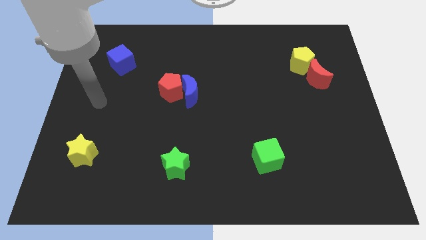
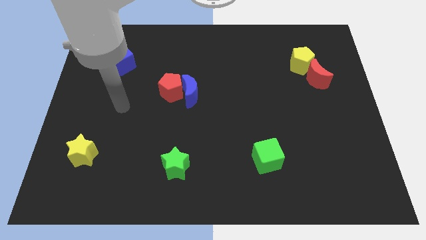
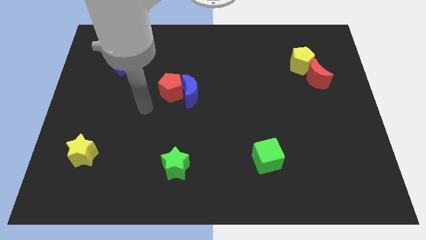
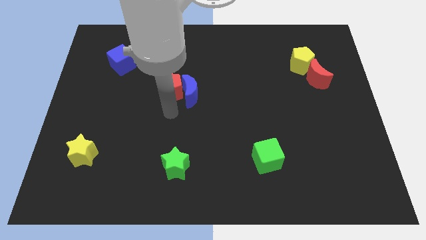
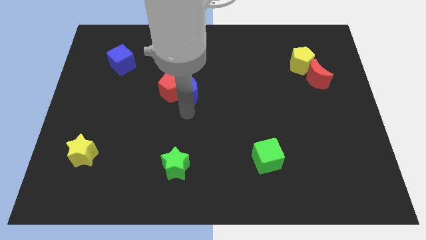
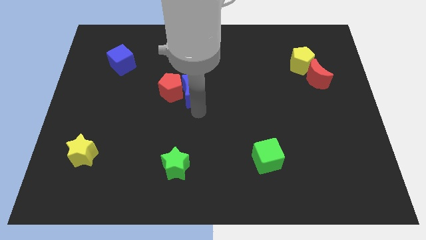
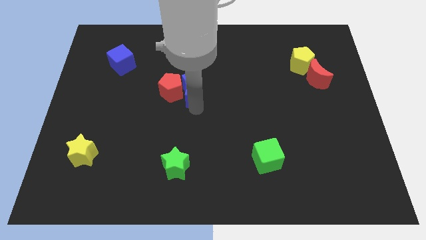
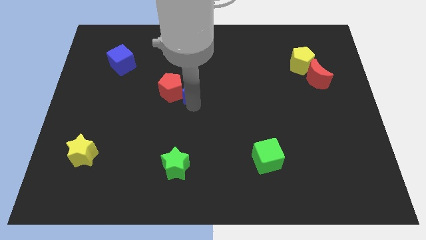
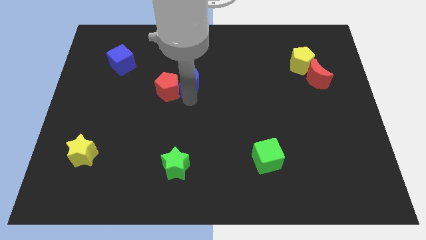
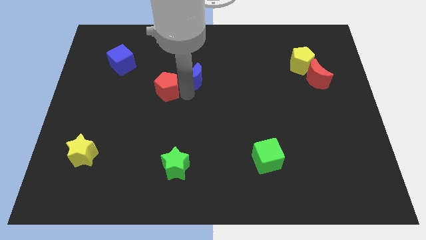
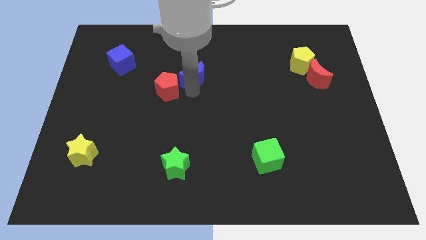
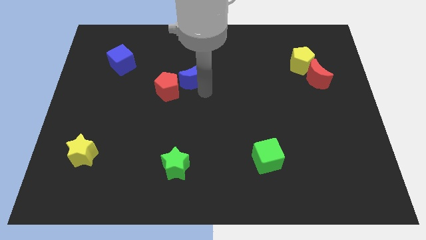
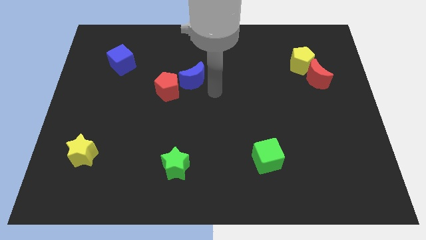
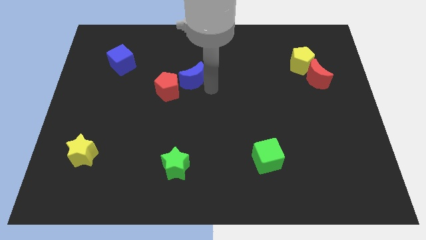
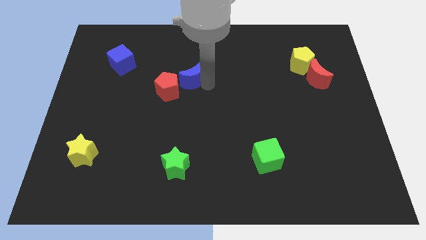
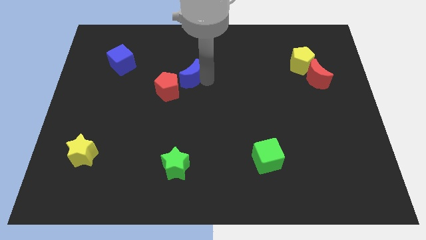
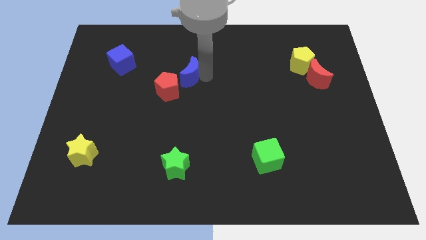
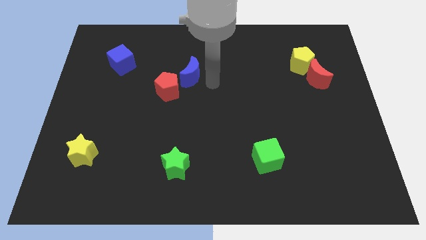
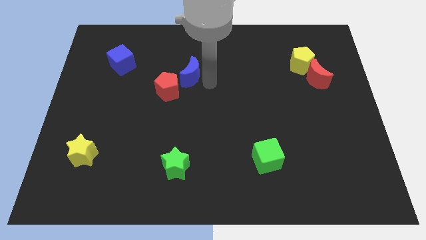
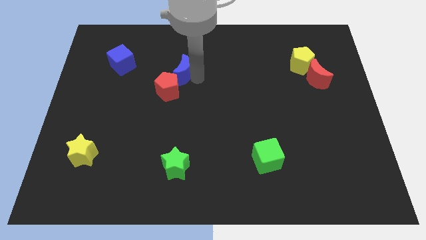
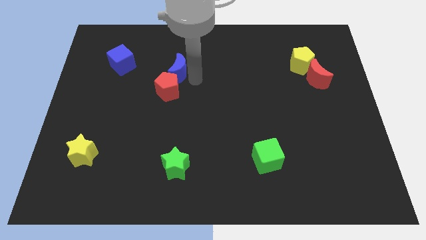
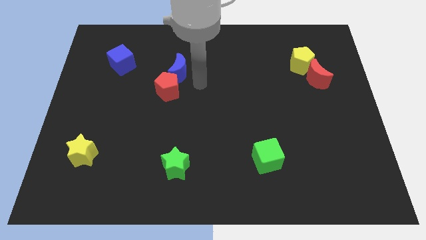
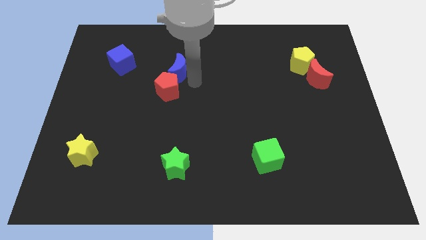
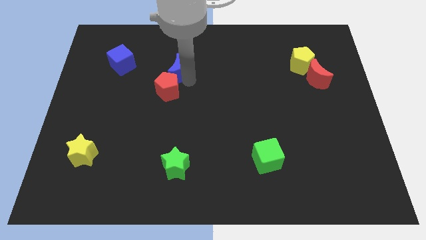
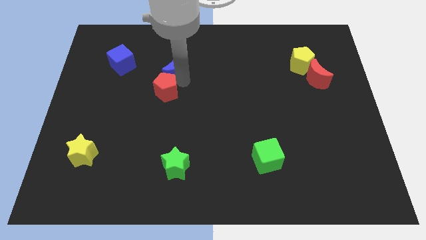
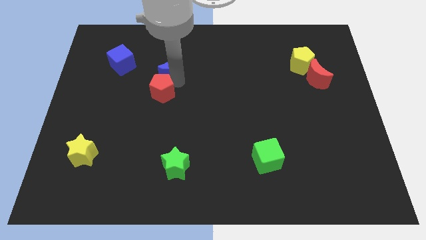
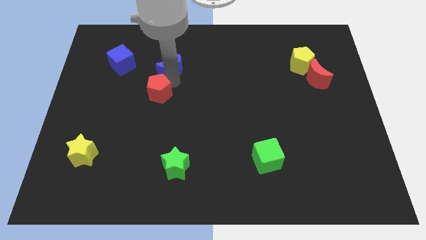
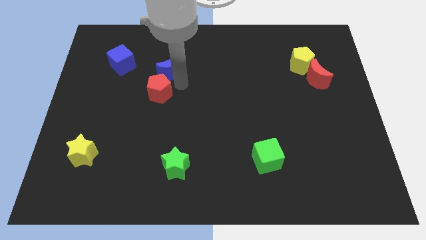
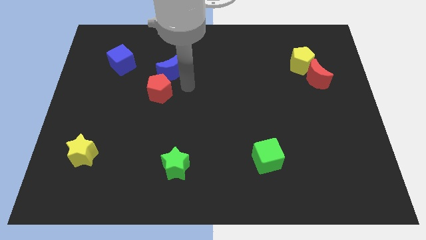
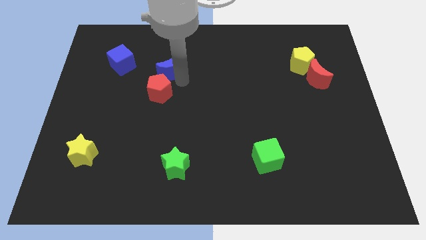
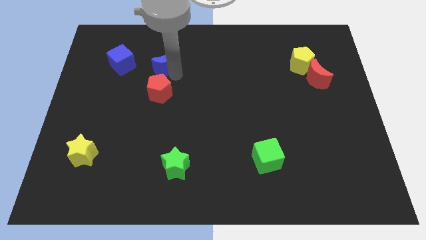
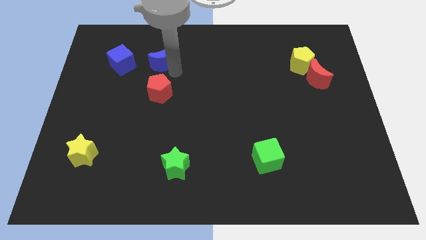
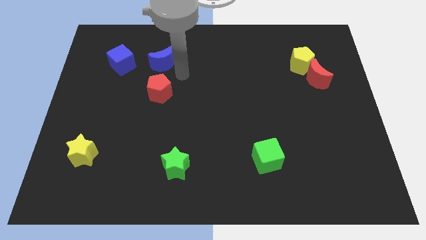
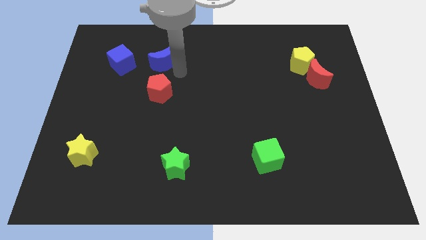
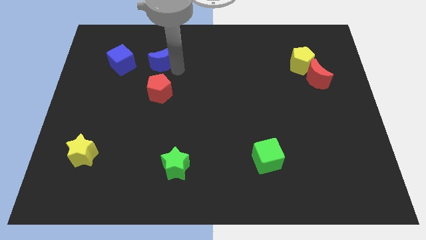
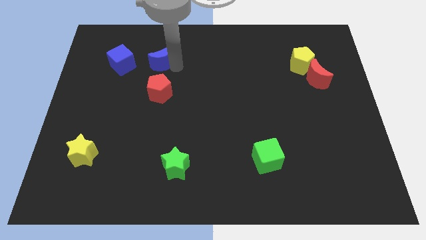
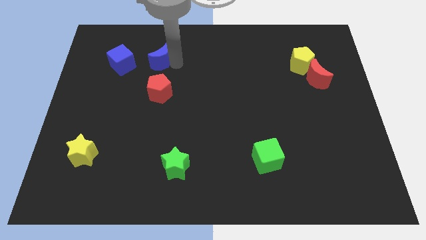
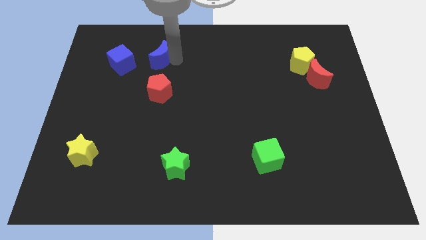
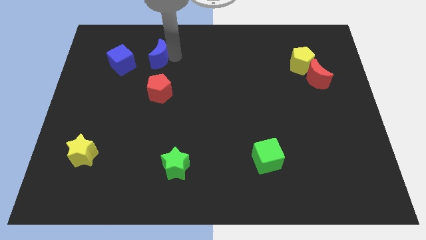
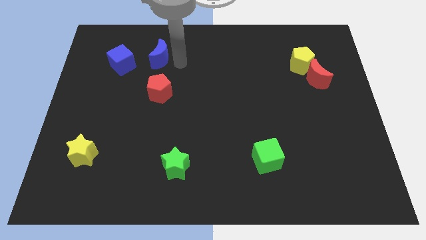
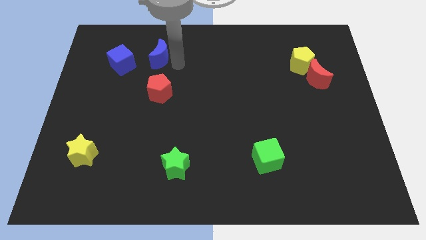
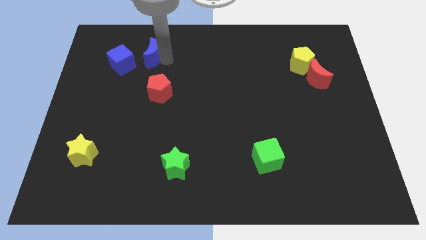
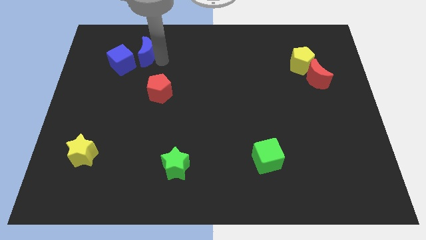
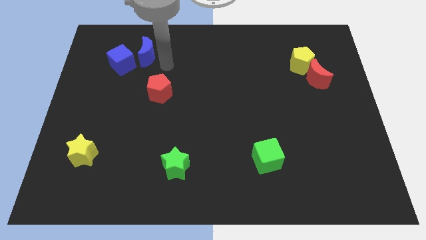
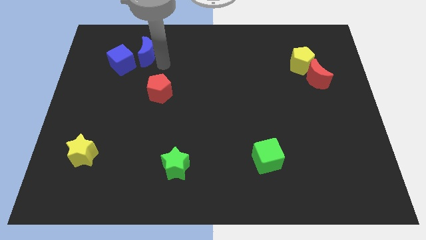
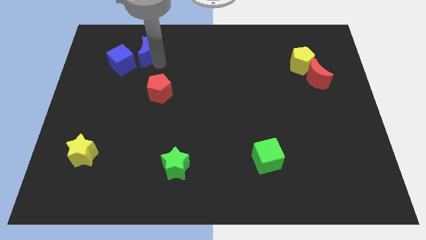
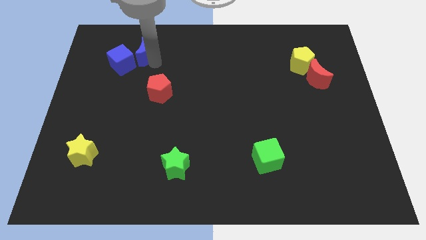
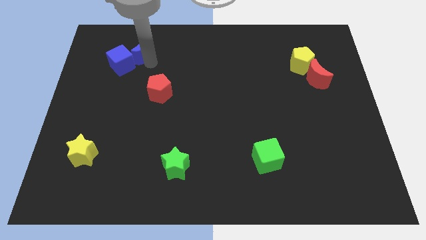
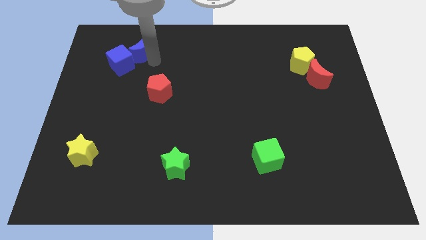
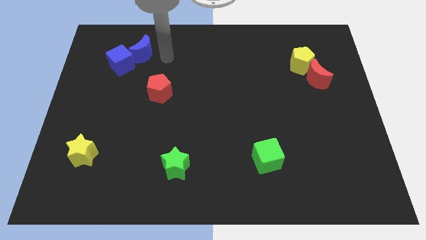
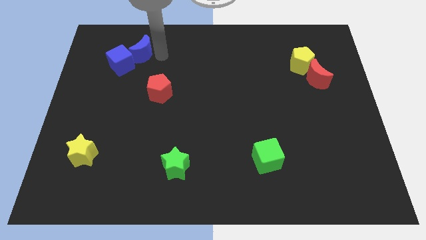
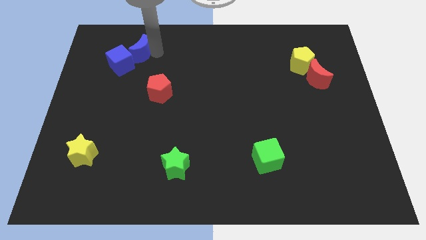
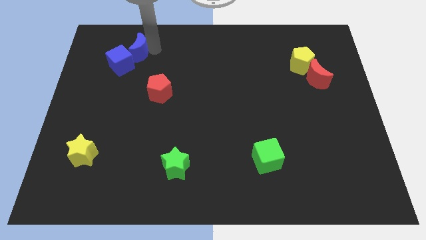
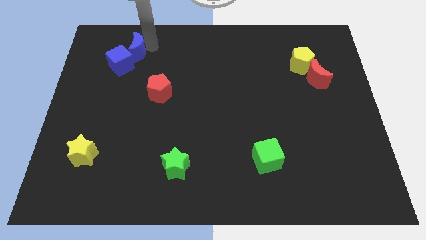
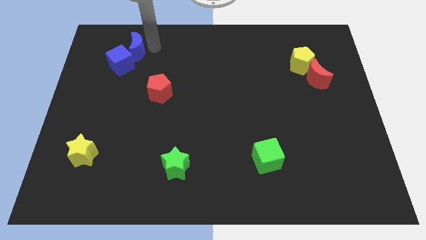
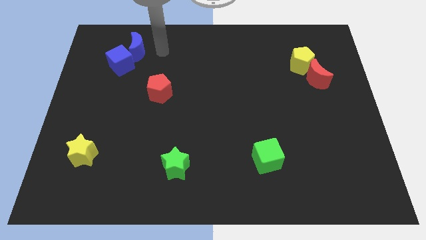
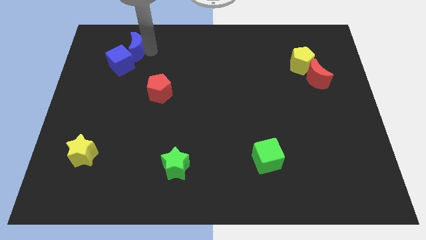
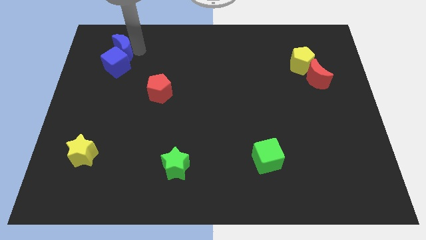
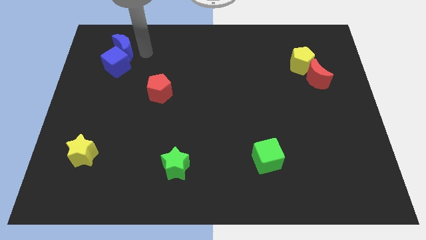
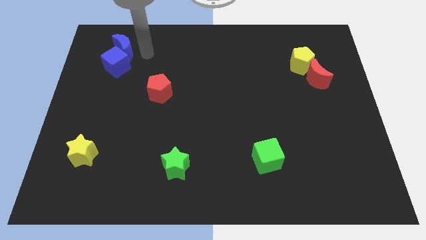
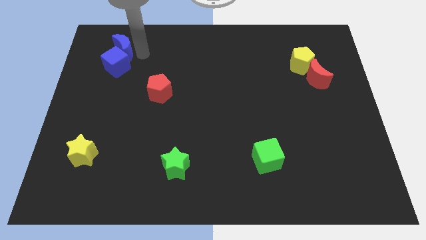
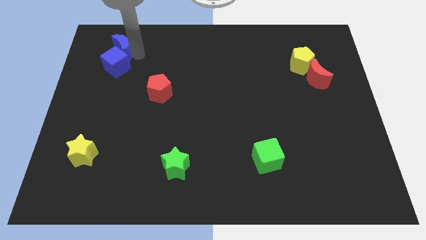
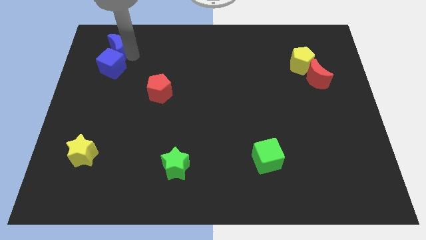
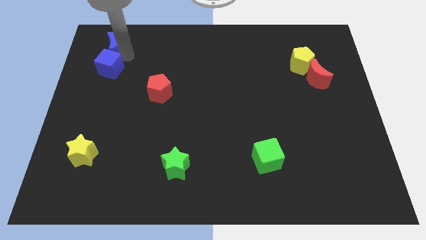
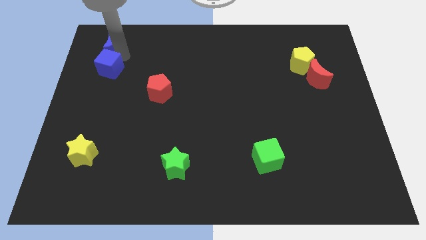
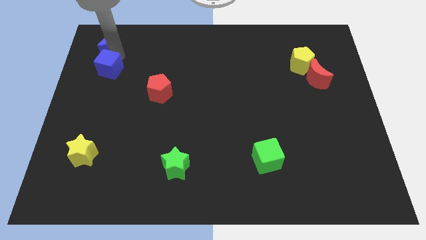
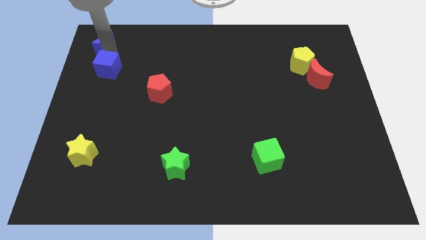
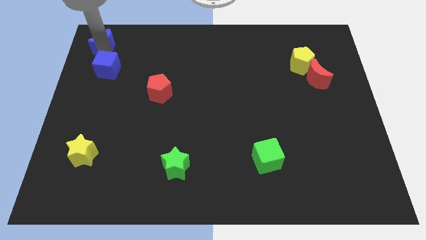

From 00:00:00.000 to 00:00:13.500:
push the blue moon to the top left of the board
